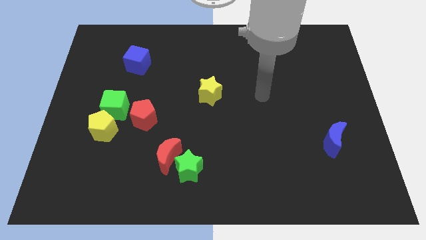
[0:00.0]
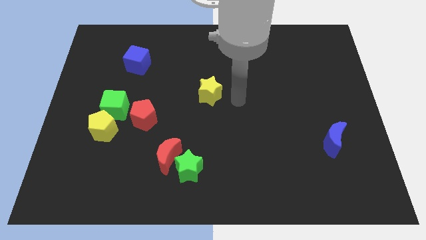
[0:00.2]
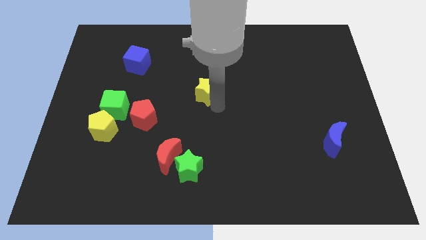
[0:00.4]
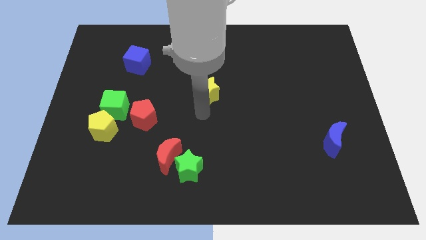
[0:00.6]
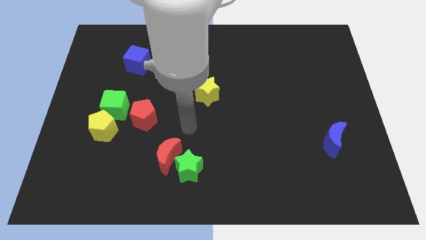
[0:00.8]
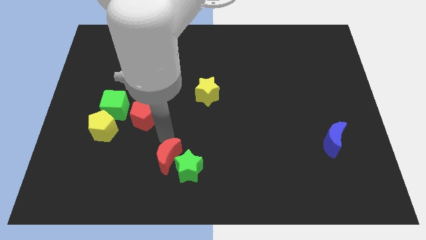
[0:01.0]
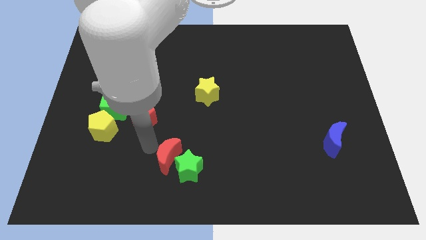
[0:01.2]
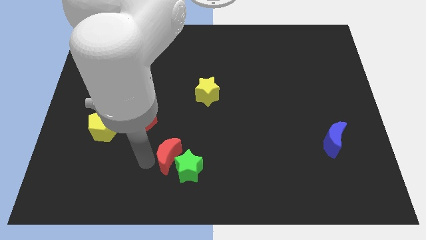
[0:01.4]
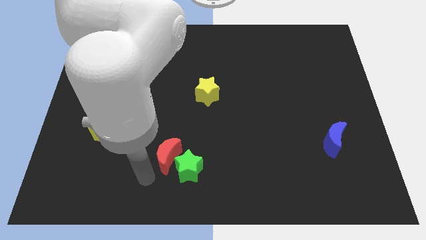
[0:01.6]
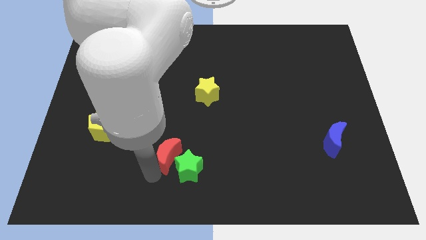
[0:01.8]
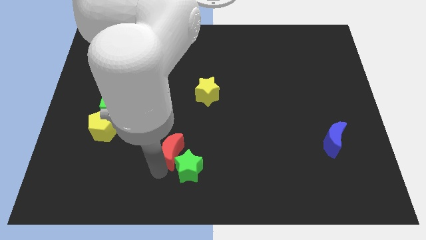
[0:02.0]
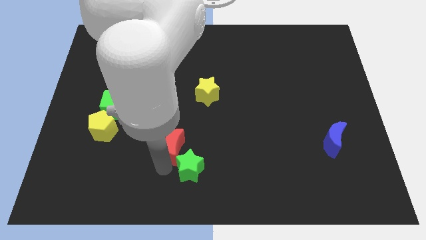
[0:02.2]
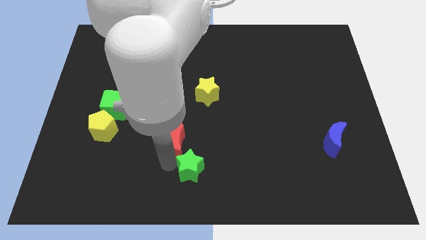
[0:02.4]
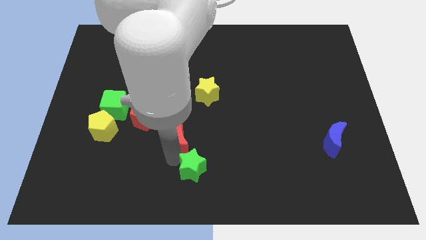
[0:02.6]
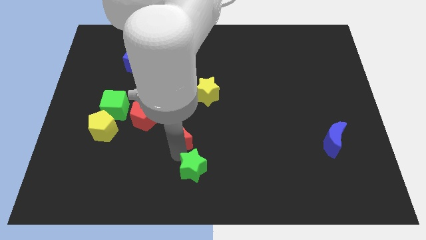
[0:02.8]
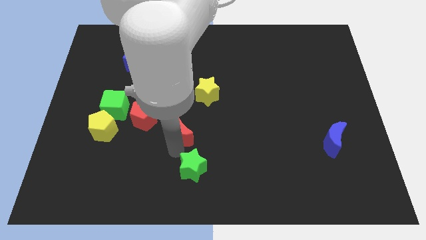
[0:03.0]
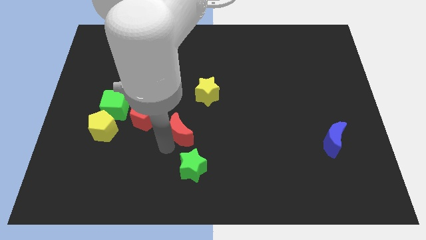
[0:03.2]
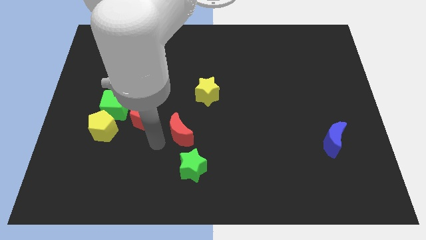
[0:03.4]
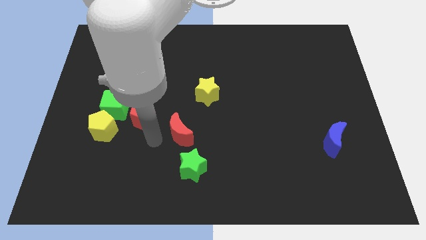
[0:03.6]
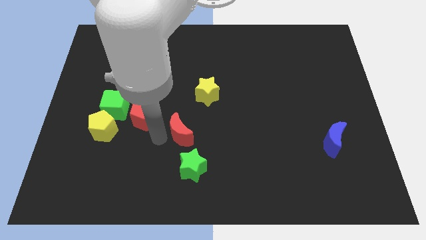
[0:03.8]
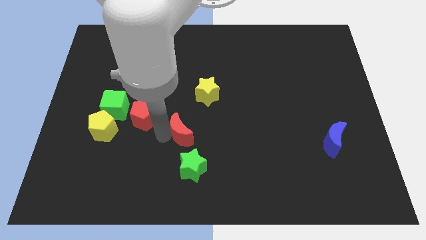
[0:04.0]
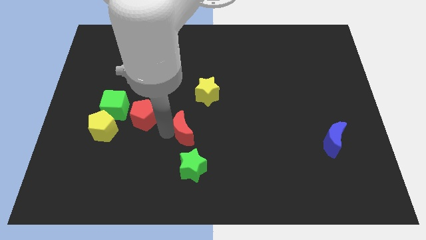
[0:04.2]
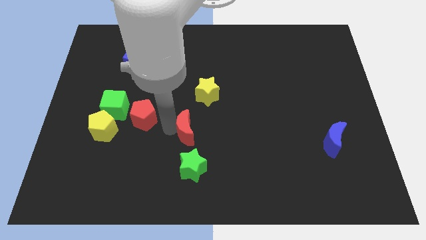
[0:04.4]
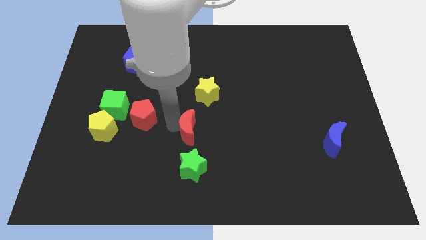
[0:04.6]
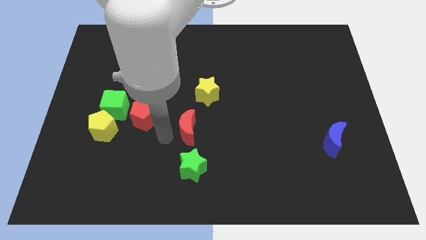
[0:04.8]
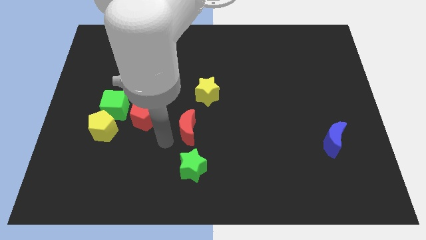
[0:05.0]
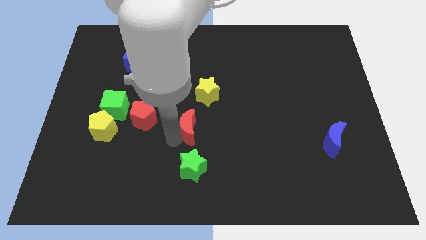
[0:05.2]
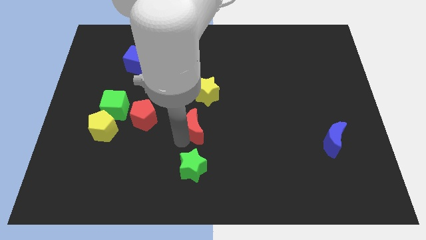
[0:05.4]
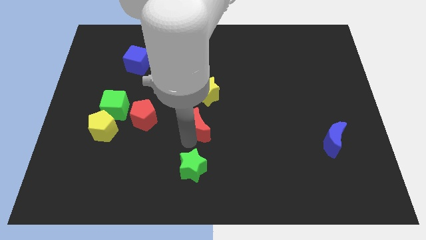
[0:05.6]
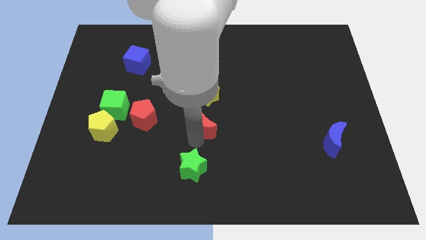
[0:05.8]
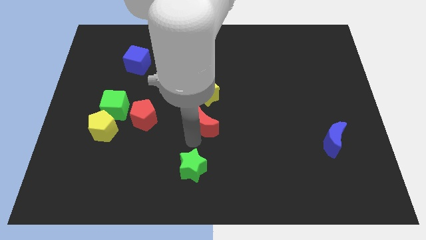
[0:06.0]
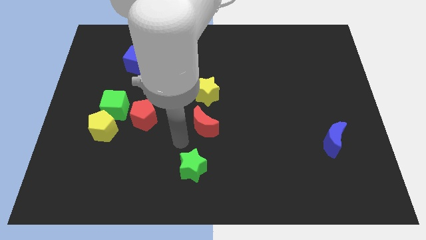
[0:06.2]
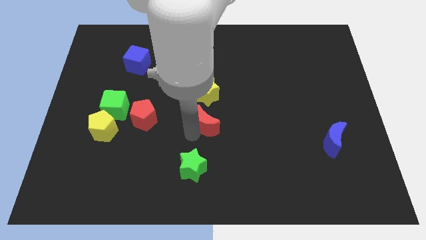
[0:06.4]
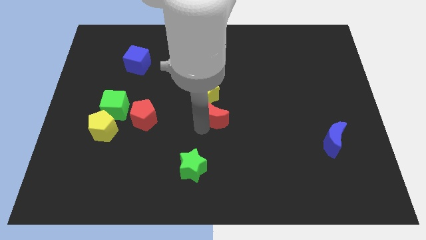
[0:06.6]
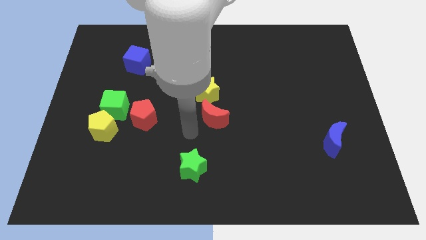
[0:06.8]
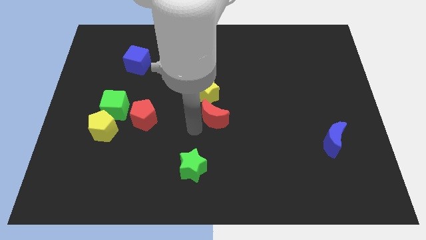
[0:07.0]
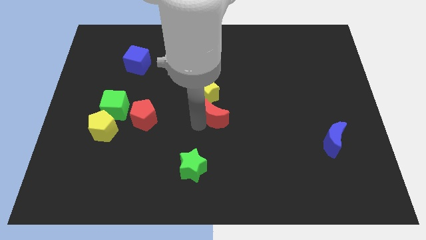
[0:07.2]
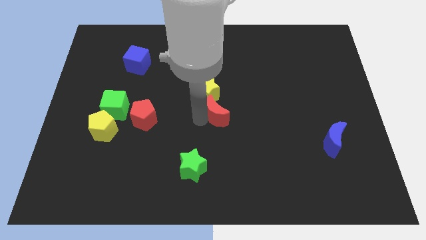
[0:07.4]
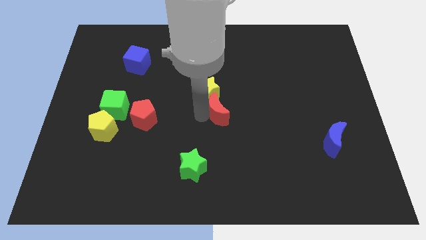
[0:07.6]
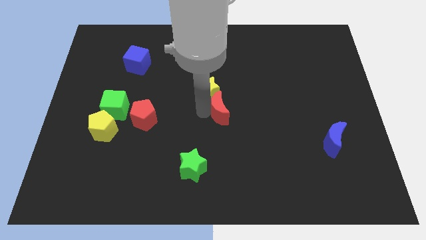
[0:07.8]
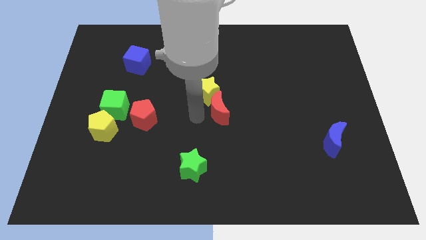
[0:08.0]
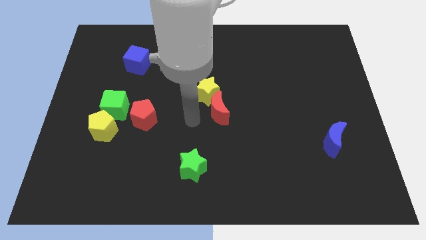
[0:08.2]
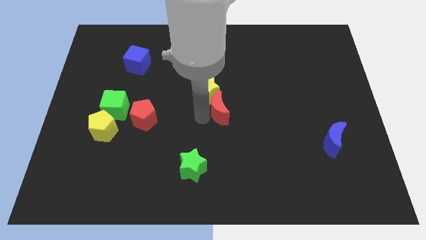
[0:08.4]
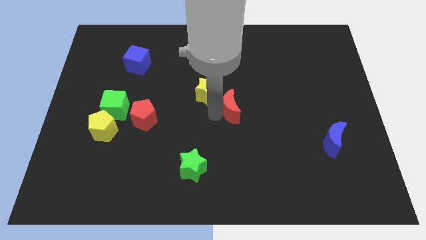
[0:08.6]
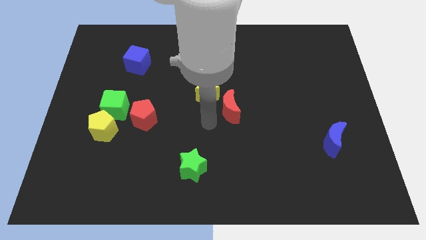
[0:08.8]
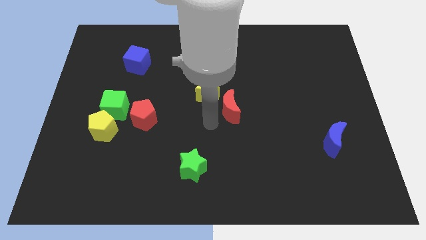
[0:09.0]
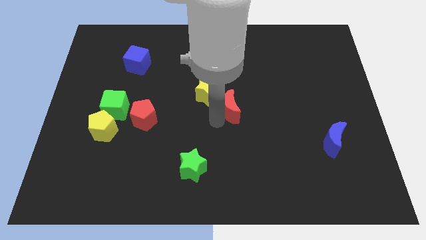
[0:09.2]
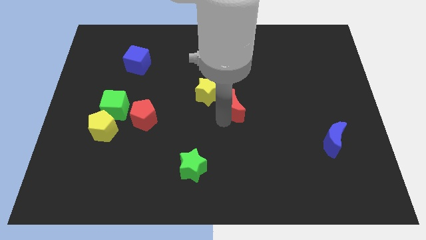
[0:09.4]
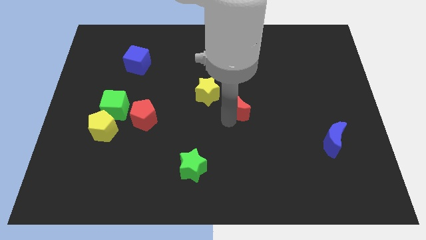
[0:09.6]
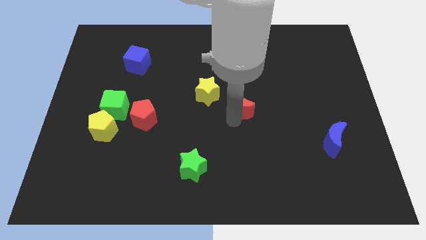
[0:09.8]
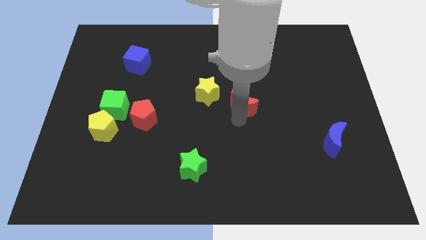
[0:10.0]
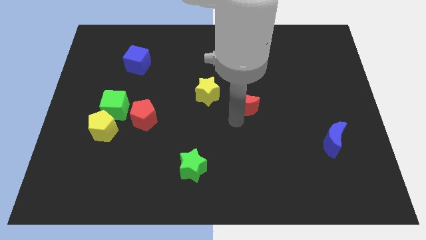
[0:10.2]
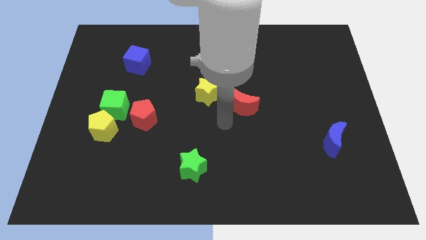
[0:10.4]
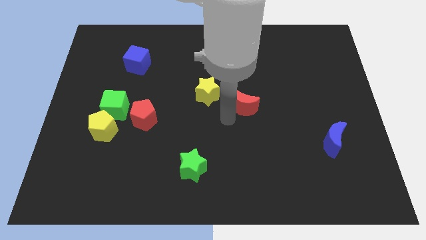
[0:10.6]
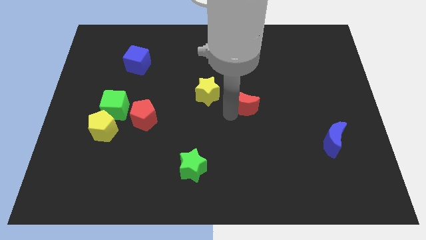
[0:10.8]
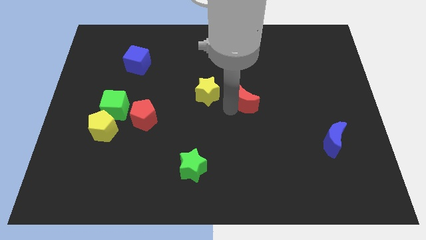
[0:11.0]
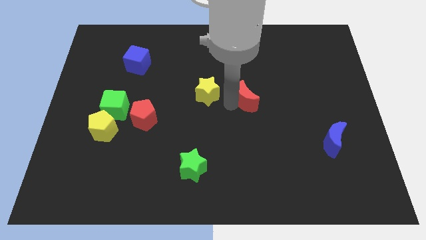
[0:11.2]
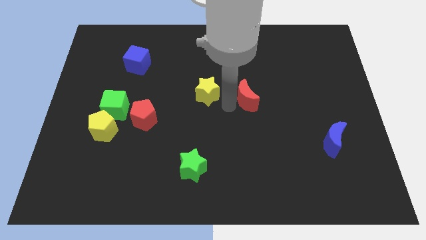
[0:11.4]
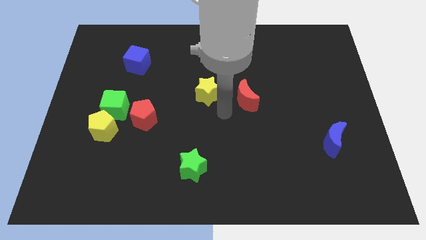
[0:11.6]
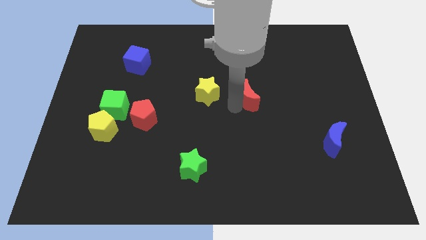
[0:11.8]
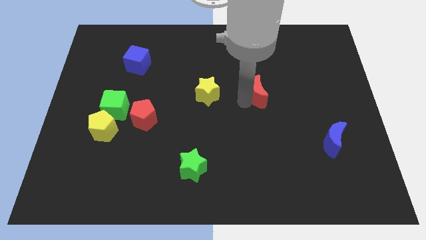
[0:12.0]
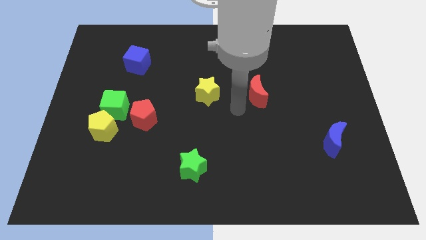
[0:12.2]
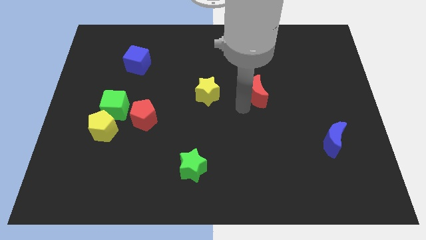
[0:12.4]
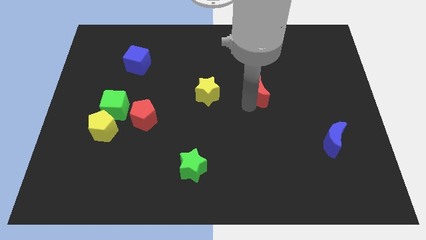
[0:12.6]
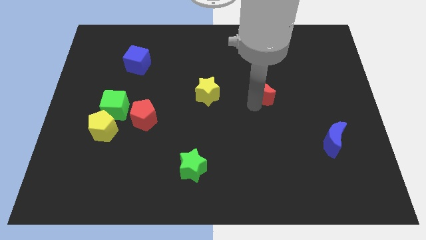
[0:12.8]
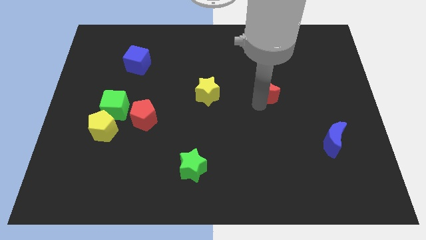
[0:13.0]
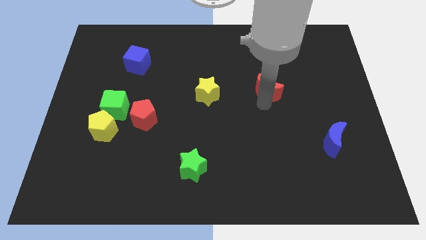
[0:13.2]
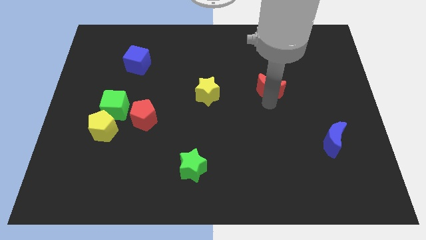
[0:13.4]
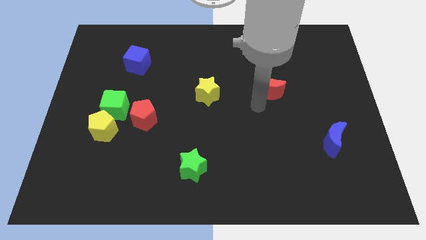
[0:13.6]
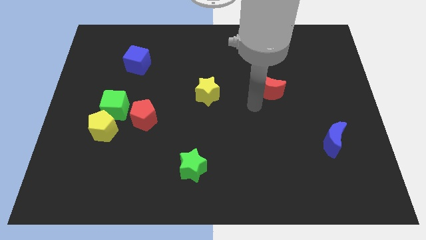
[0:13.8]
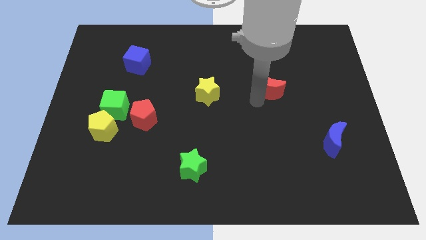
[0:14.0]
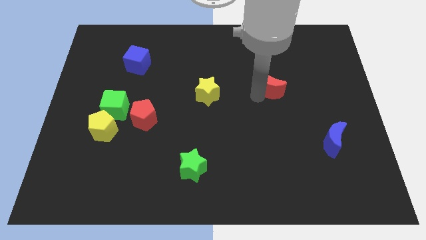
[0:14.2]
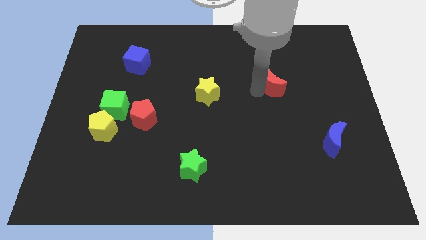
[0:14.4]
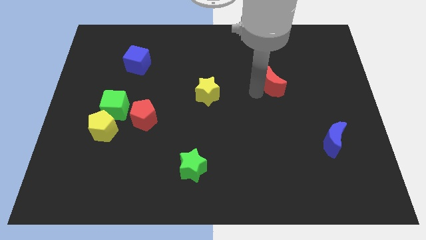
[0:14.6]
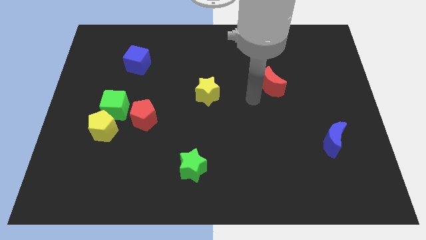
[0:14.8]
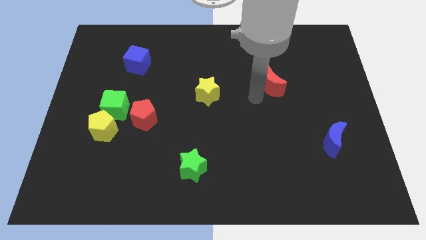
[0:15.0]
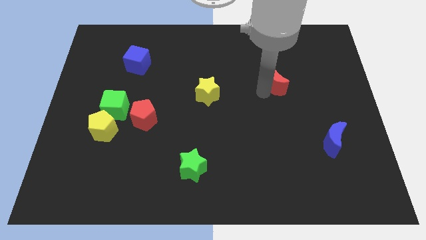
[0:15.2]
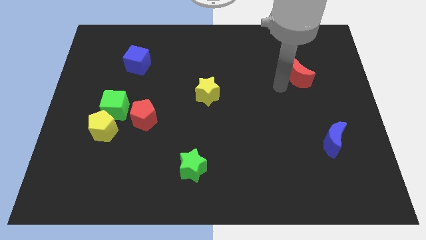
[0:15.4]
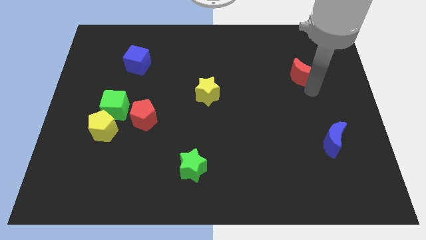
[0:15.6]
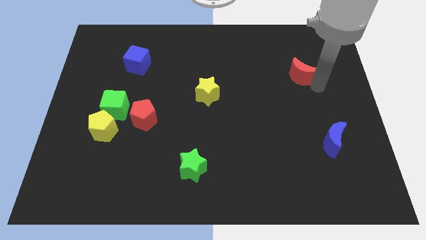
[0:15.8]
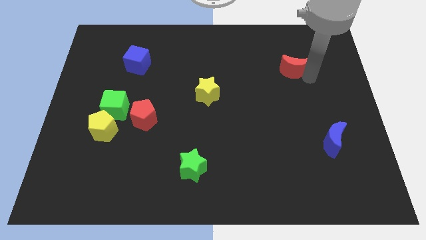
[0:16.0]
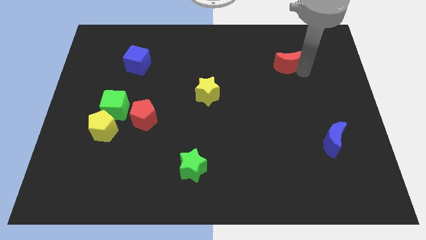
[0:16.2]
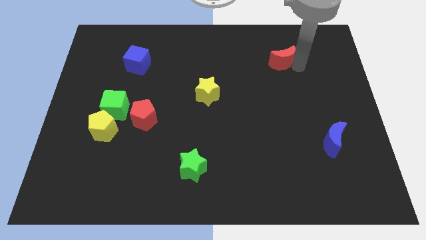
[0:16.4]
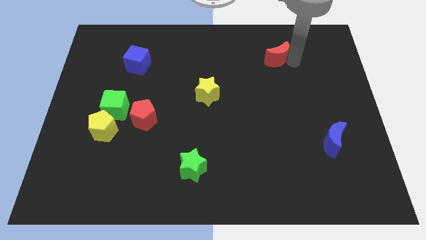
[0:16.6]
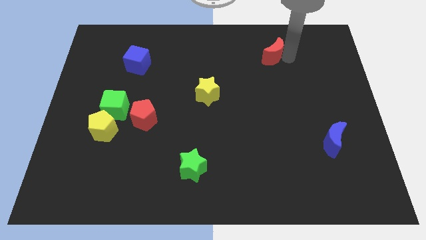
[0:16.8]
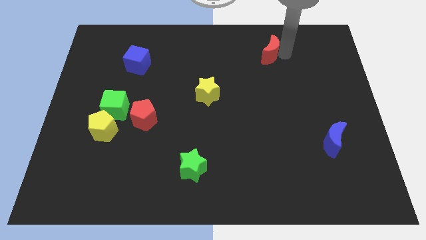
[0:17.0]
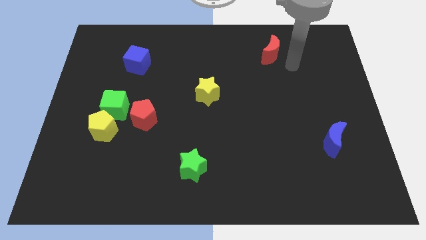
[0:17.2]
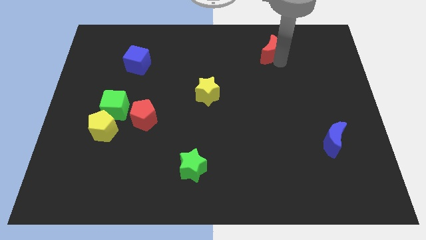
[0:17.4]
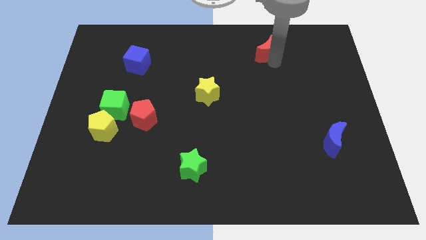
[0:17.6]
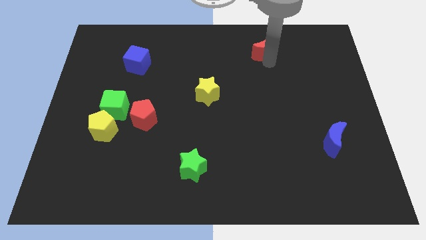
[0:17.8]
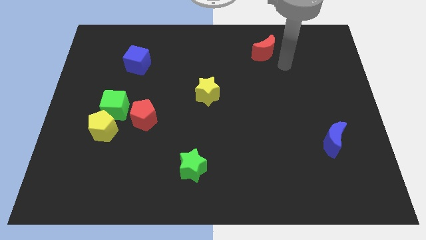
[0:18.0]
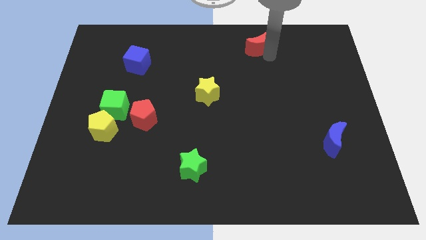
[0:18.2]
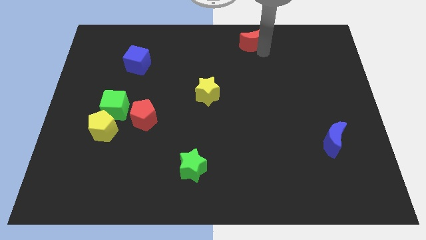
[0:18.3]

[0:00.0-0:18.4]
put the red moon to the top side
